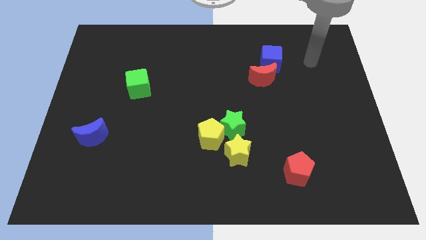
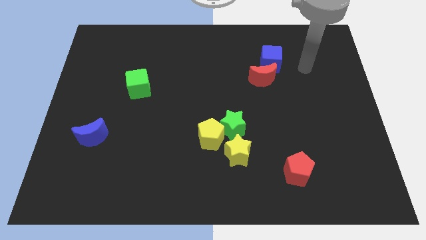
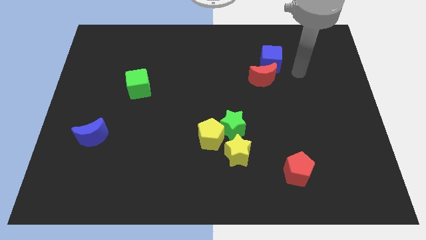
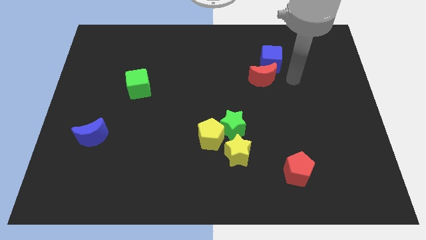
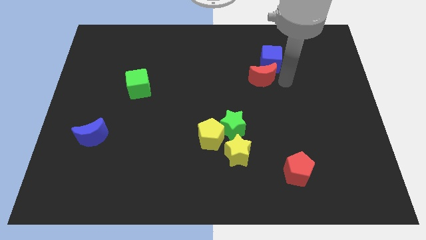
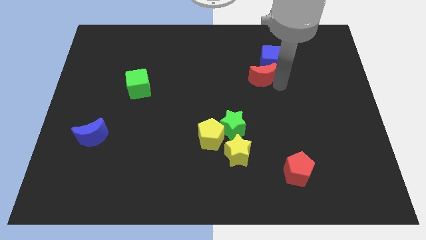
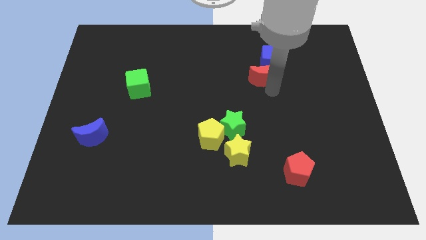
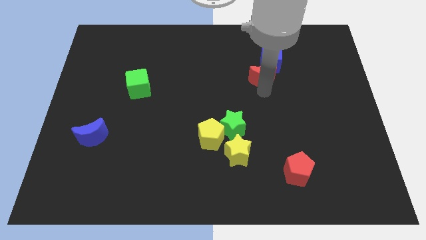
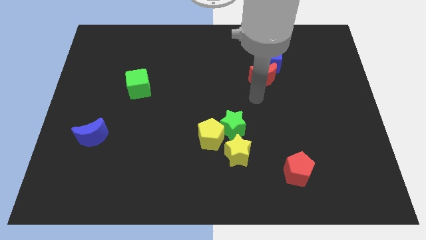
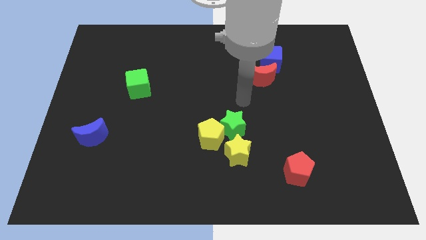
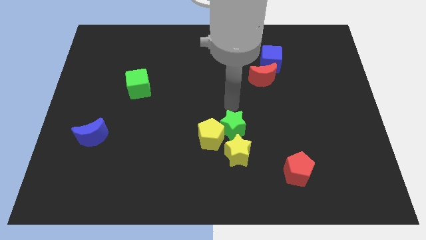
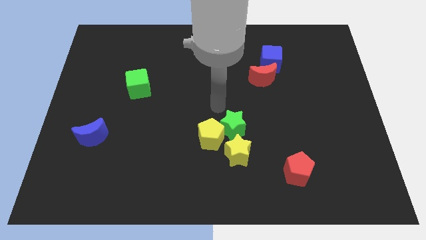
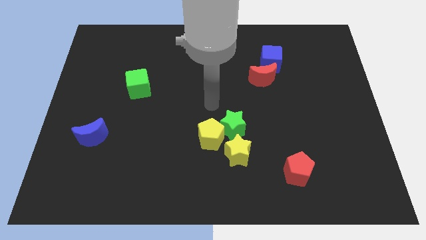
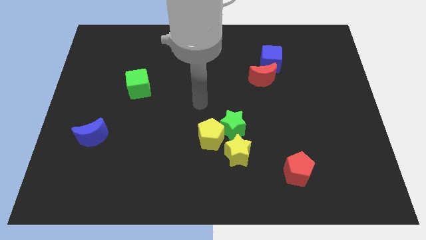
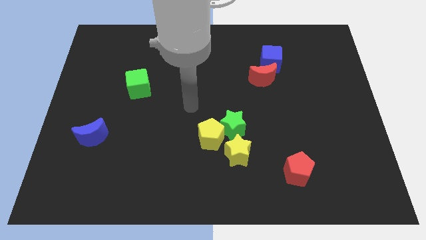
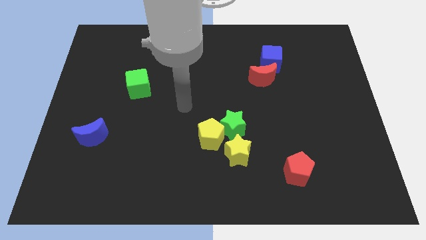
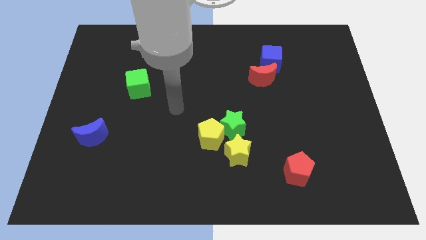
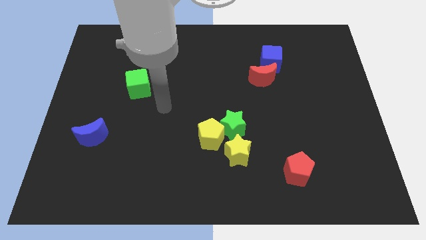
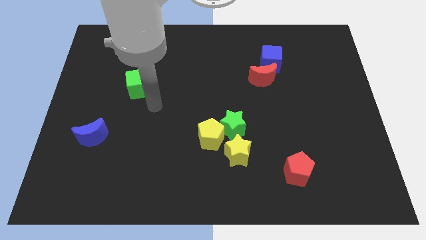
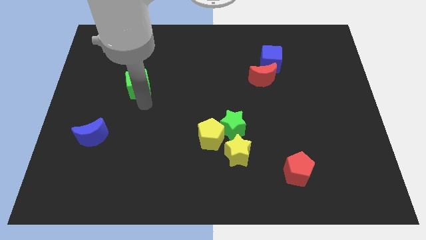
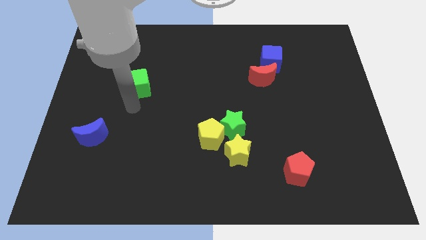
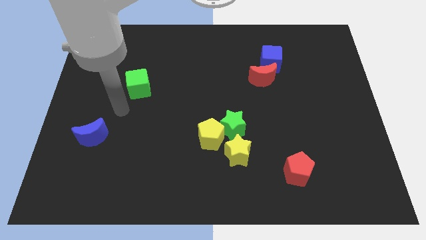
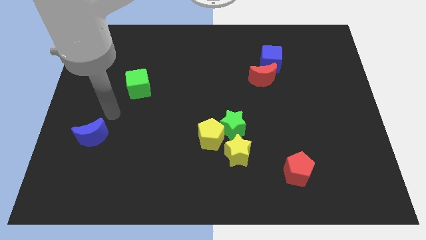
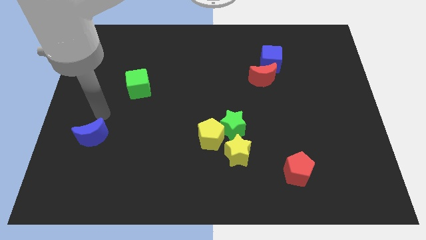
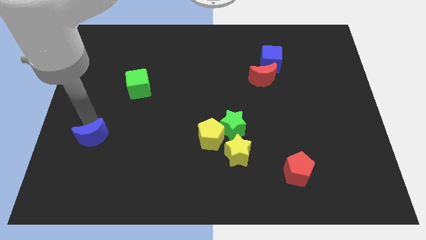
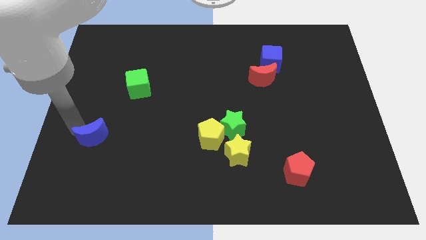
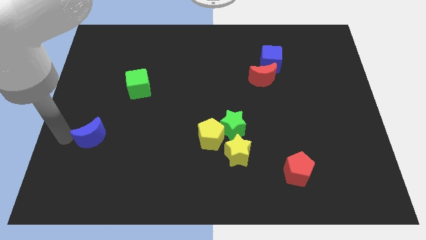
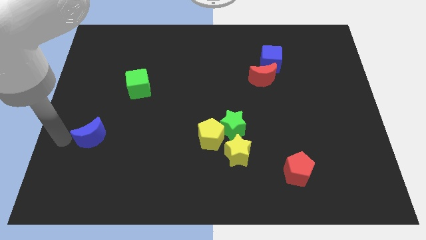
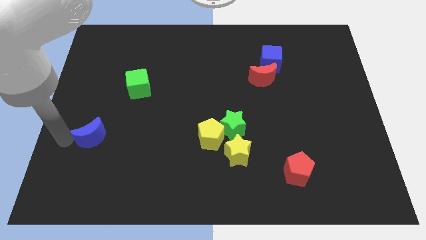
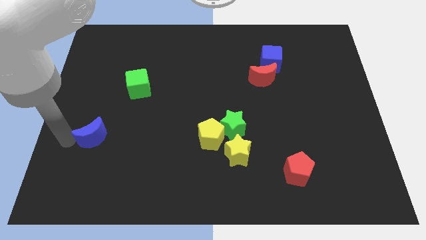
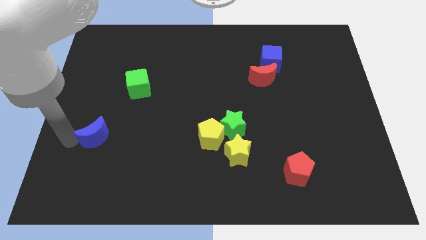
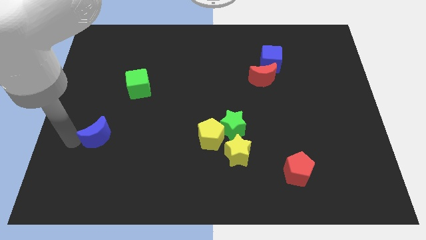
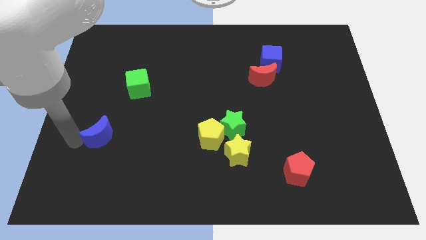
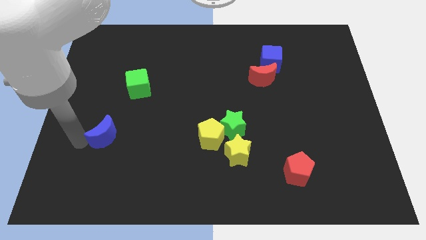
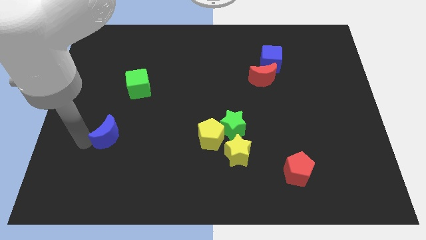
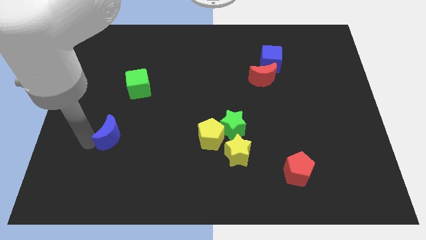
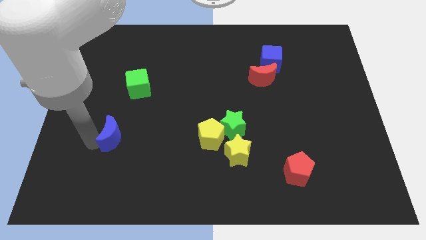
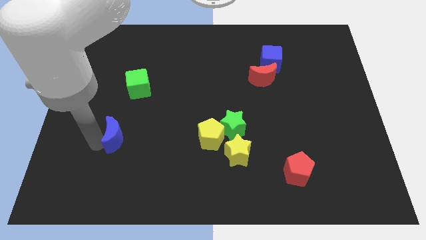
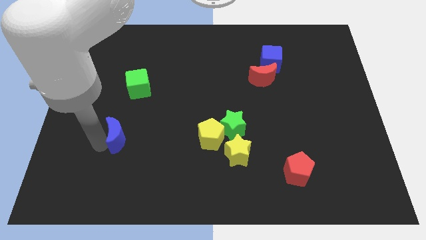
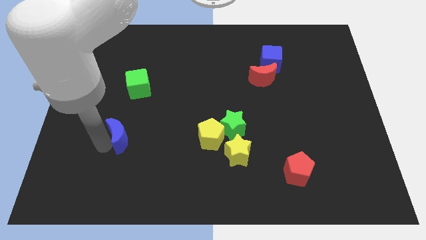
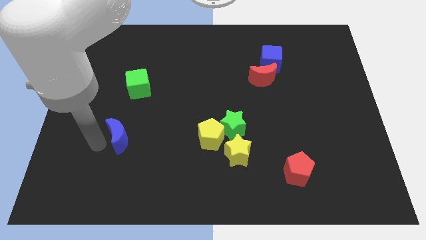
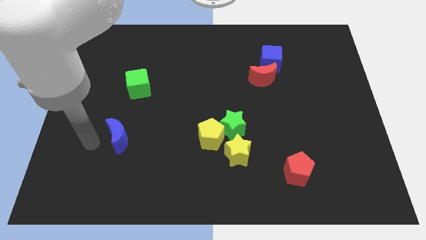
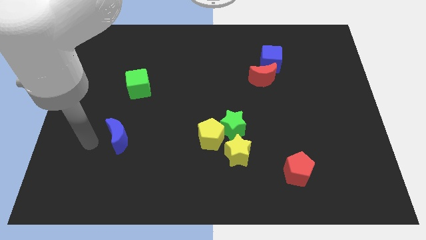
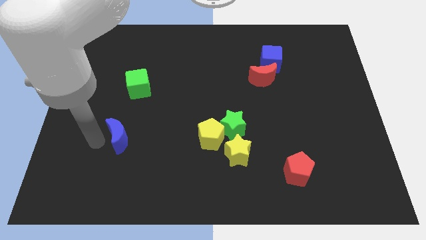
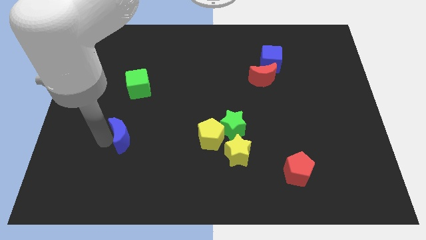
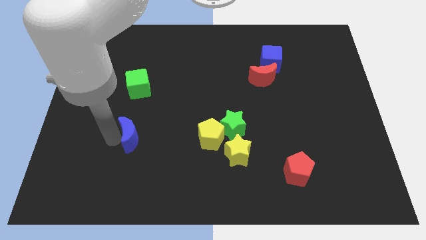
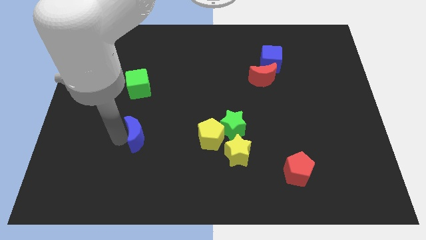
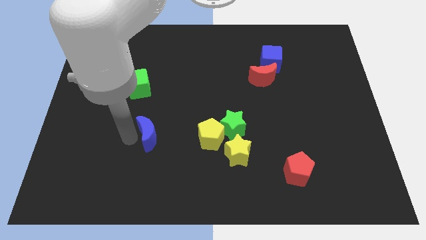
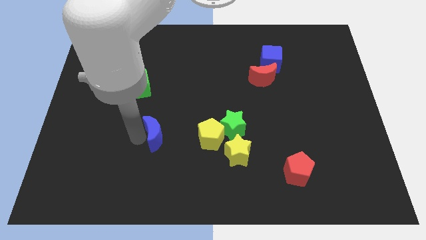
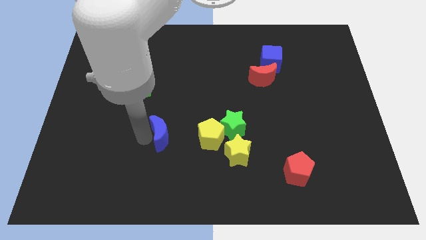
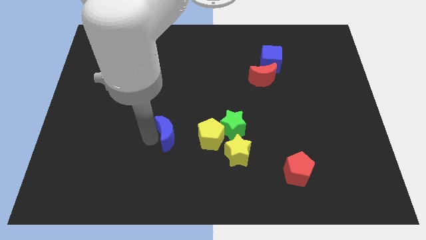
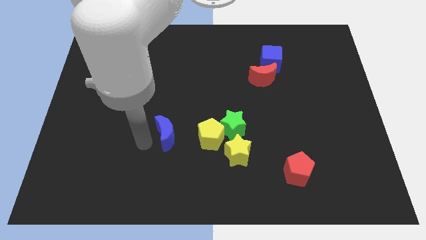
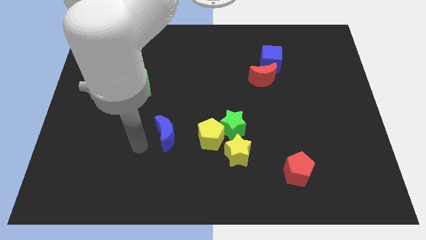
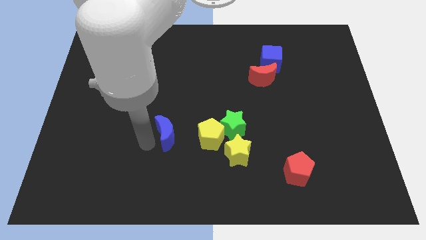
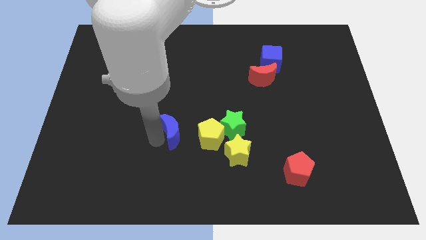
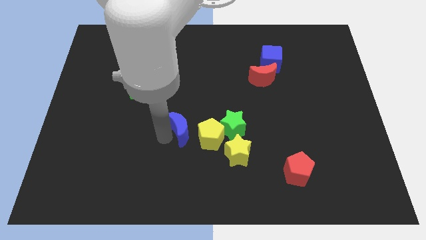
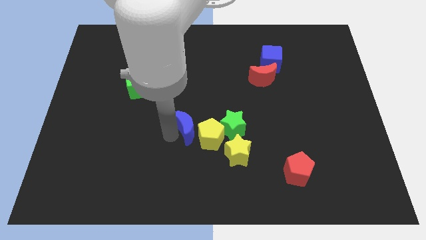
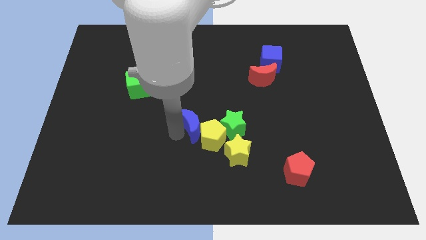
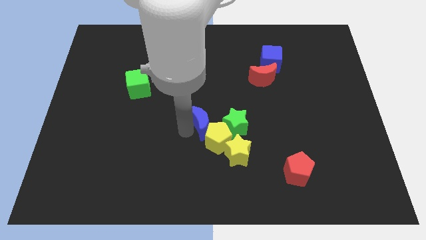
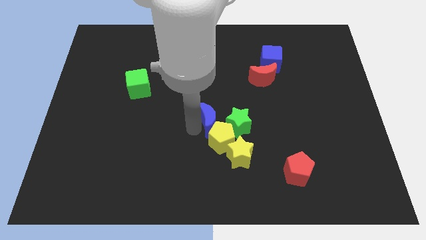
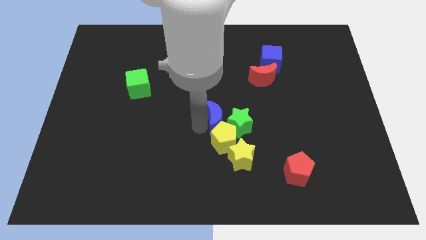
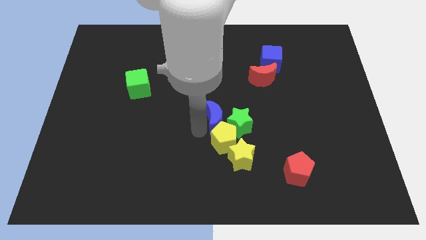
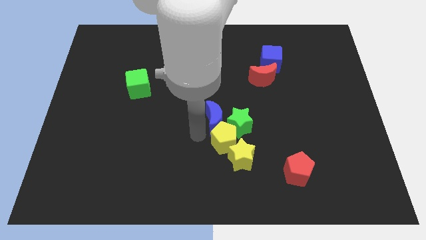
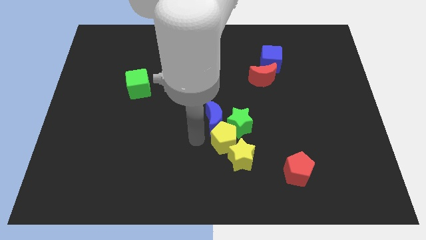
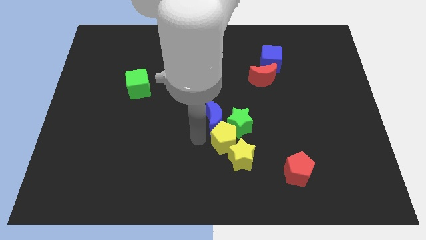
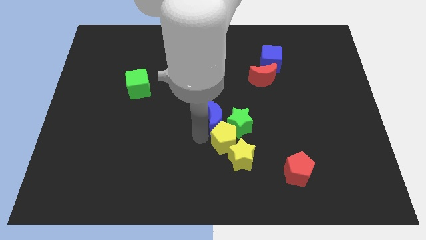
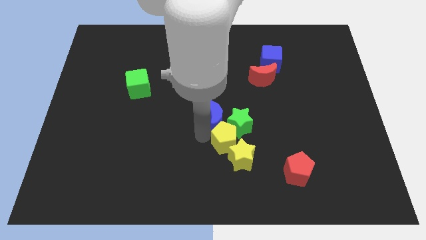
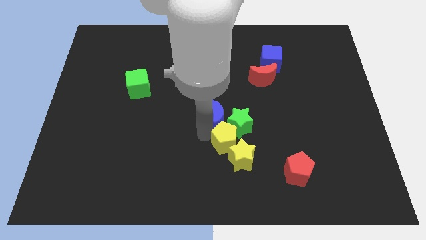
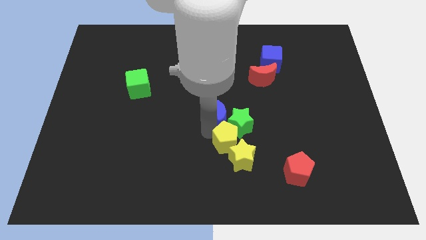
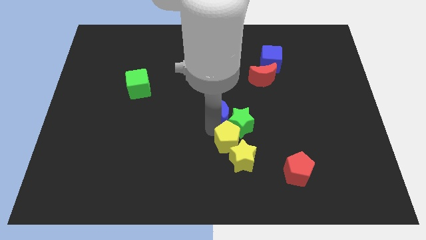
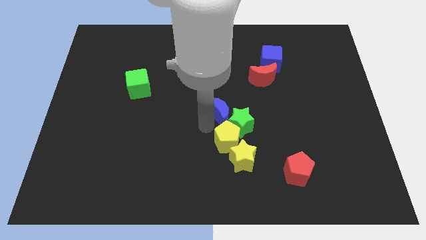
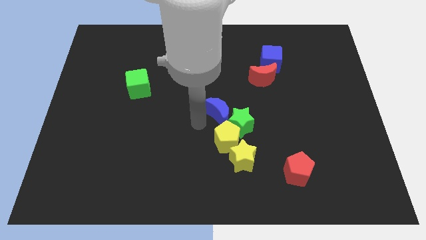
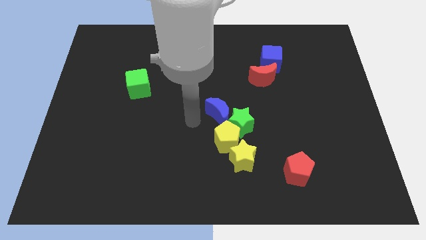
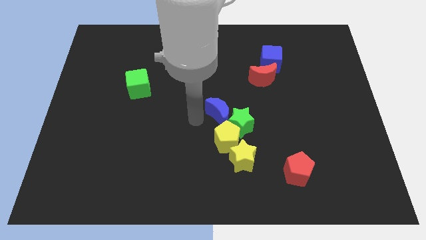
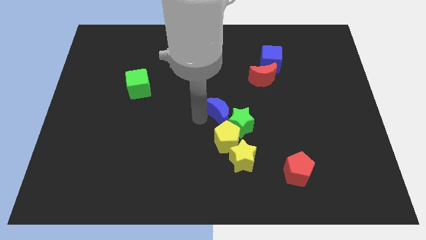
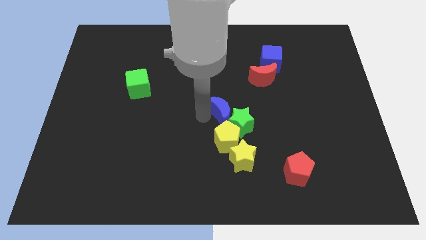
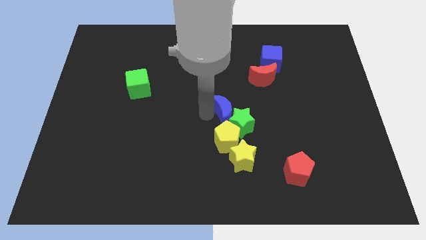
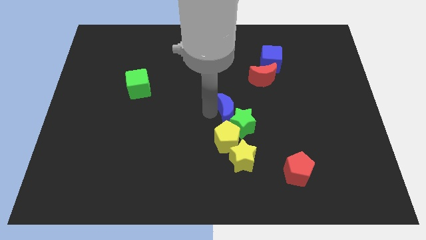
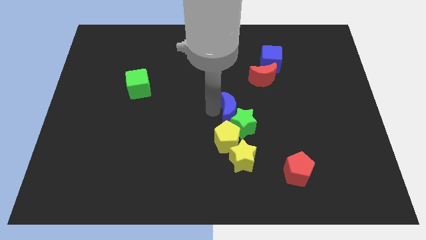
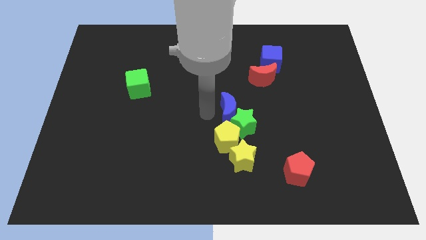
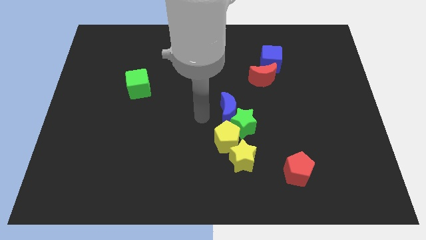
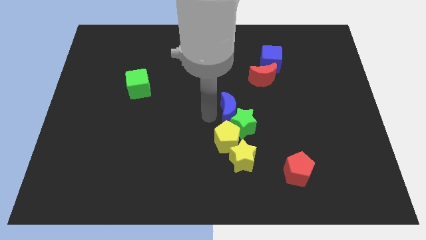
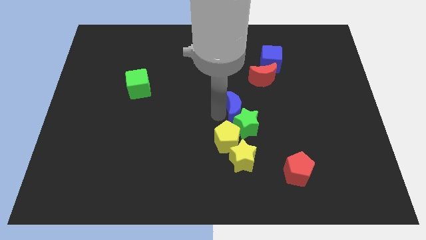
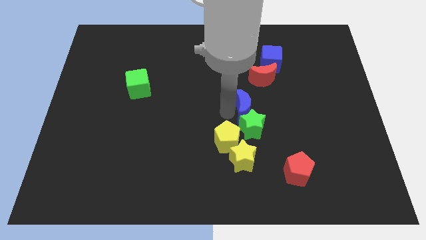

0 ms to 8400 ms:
push the blue moon diagonally up and to the right of the green star
